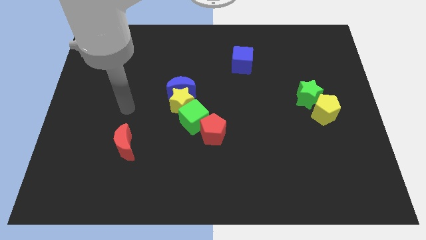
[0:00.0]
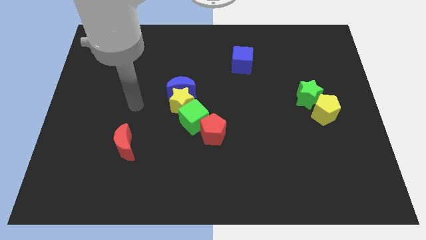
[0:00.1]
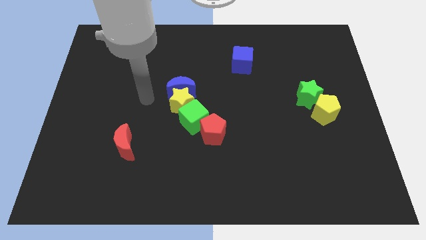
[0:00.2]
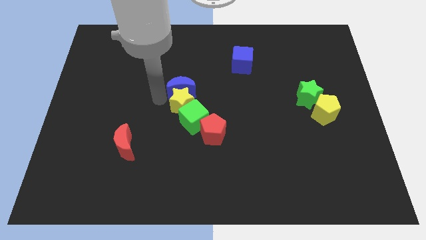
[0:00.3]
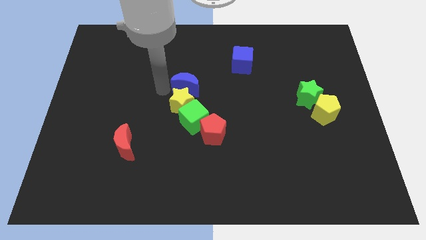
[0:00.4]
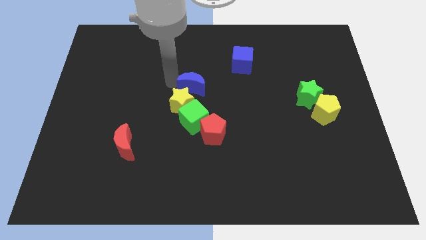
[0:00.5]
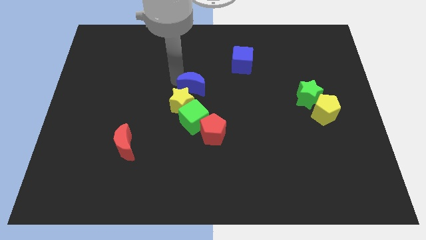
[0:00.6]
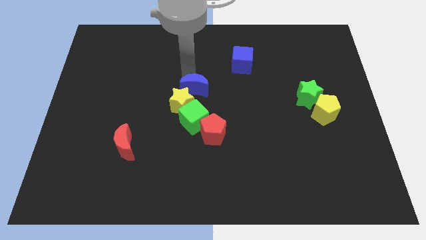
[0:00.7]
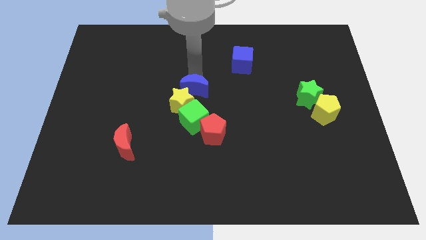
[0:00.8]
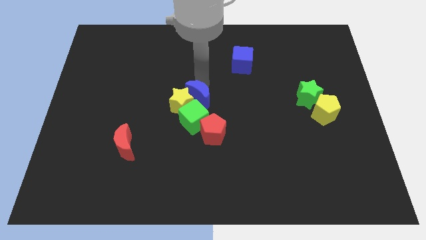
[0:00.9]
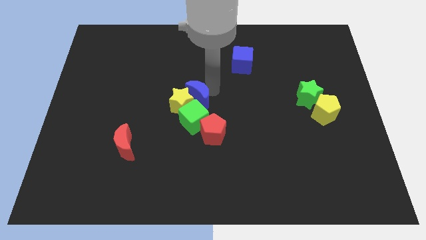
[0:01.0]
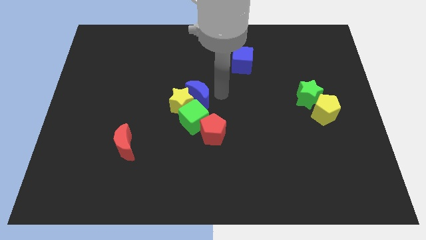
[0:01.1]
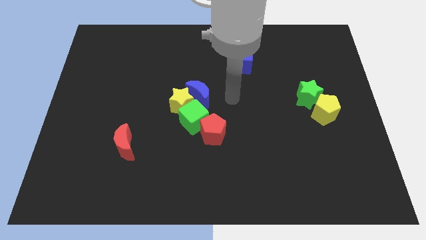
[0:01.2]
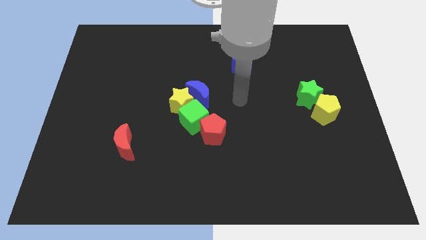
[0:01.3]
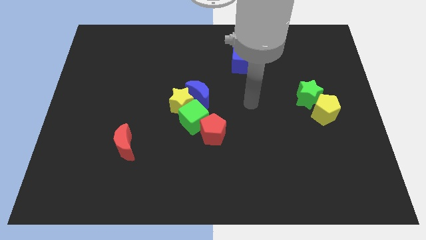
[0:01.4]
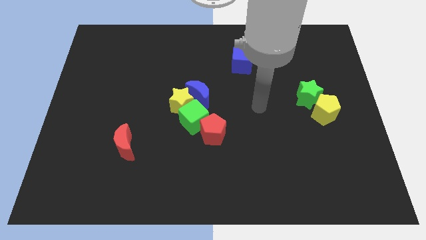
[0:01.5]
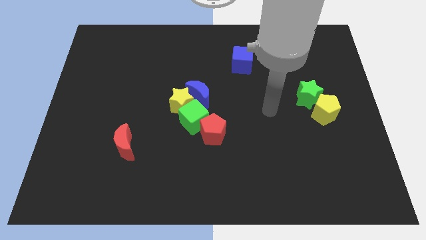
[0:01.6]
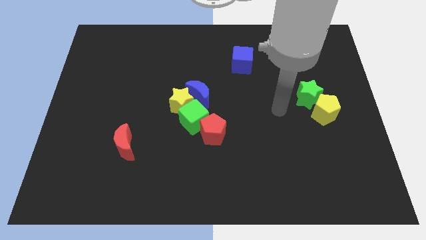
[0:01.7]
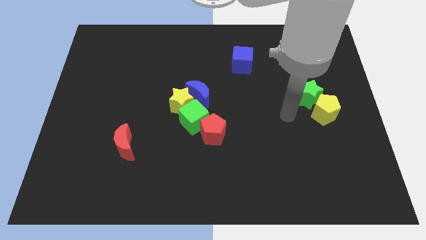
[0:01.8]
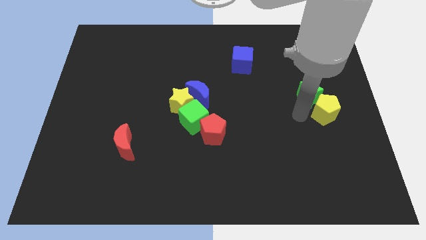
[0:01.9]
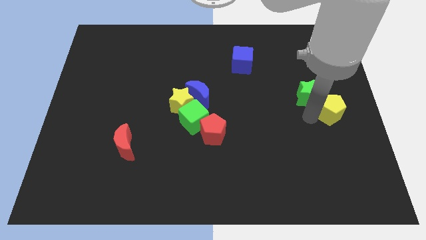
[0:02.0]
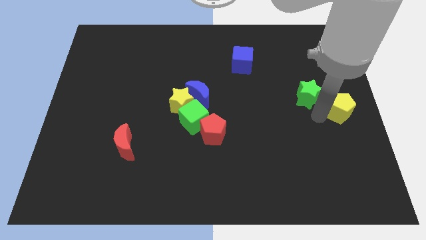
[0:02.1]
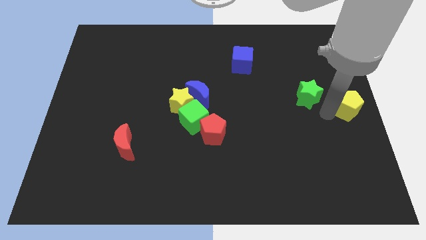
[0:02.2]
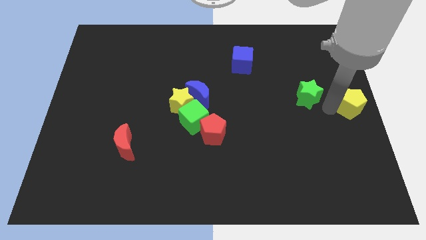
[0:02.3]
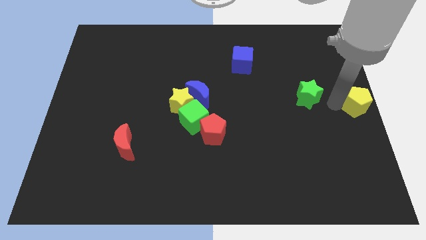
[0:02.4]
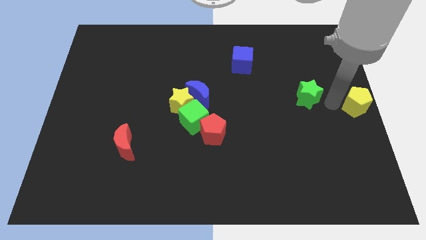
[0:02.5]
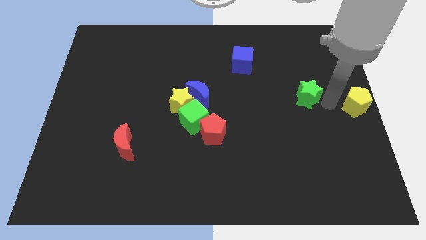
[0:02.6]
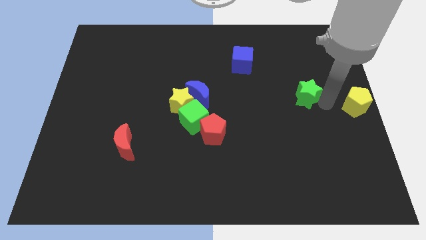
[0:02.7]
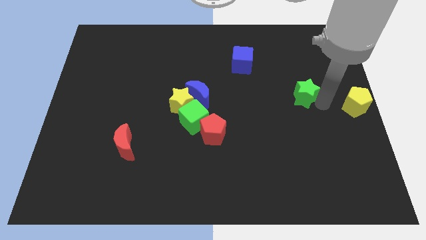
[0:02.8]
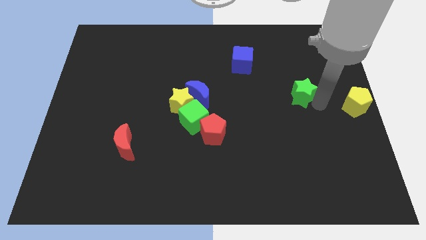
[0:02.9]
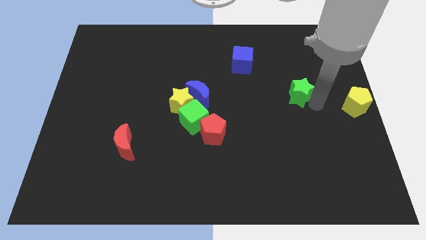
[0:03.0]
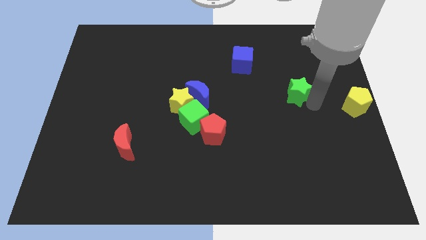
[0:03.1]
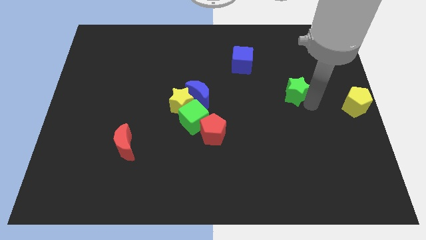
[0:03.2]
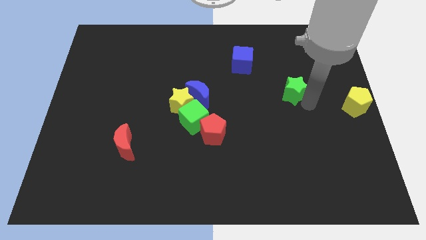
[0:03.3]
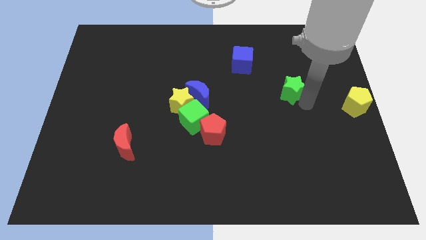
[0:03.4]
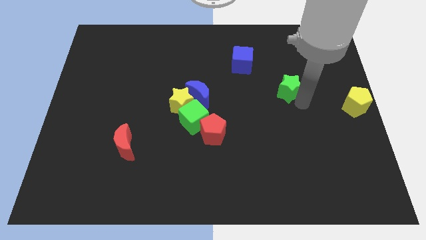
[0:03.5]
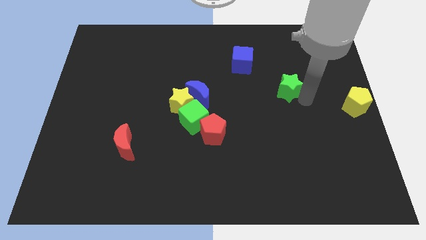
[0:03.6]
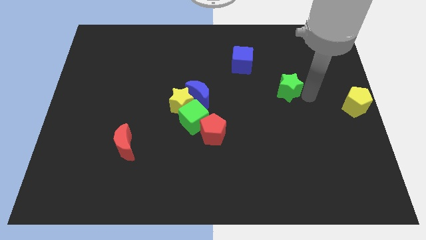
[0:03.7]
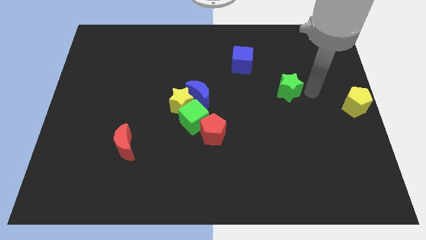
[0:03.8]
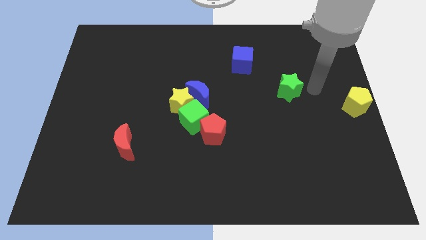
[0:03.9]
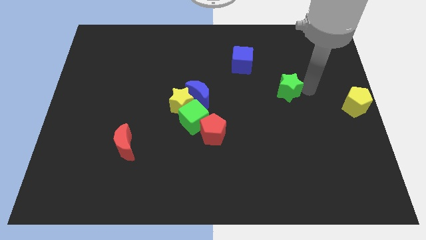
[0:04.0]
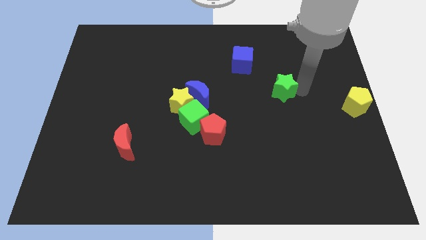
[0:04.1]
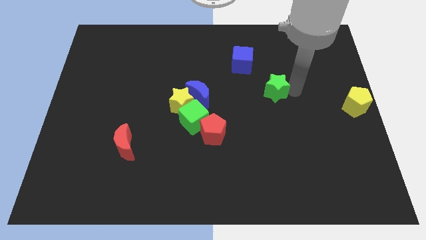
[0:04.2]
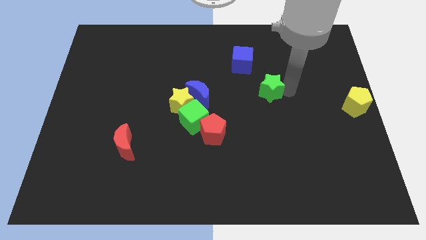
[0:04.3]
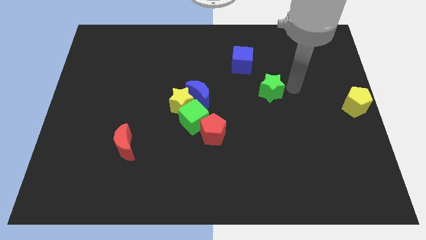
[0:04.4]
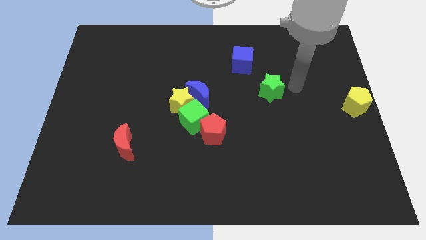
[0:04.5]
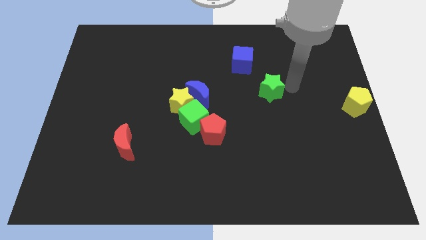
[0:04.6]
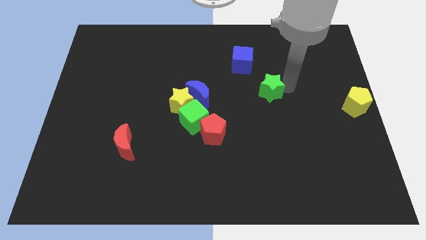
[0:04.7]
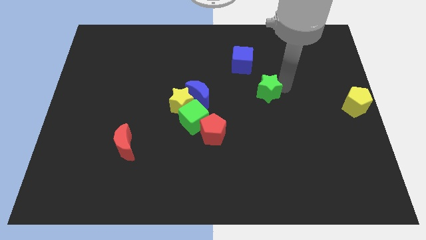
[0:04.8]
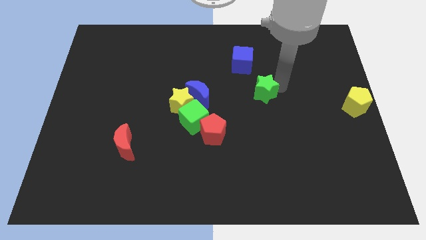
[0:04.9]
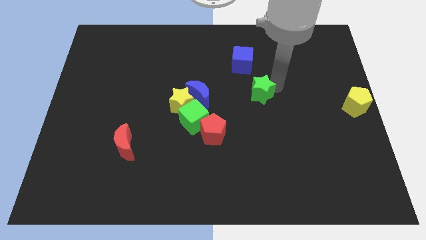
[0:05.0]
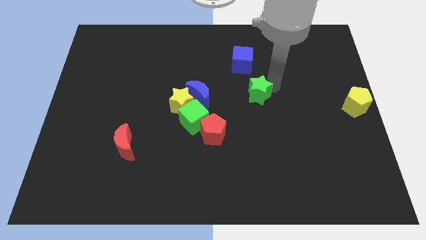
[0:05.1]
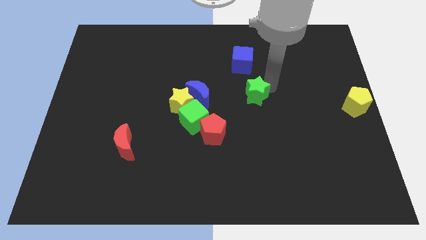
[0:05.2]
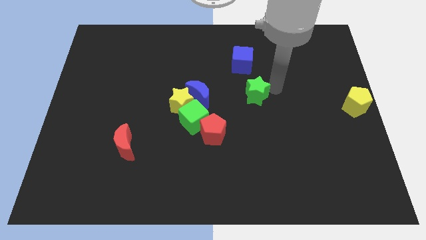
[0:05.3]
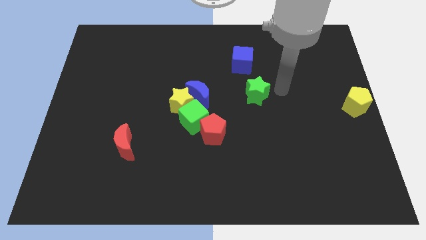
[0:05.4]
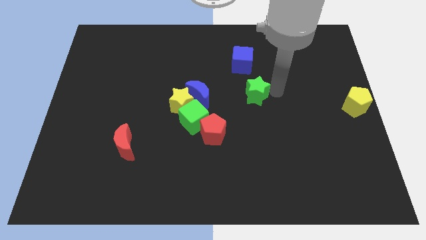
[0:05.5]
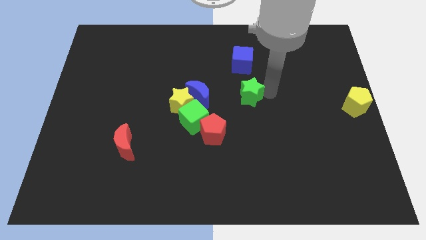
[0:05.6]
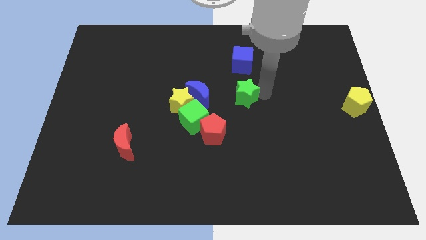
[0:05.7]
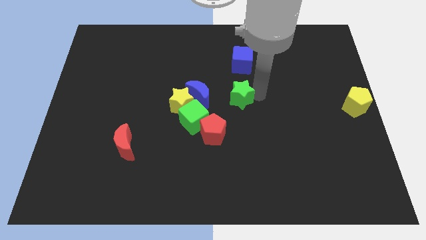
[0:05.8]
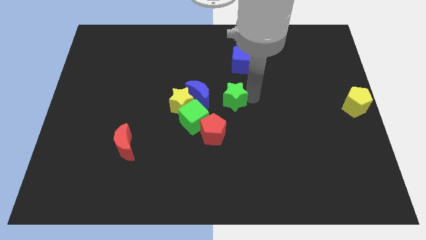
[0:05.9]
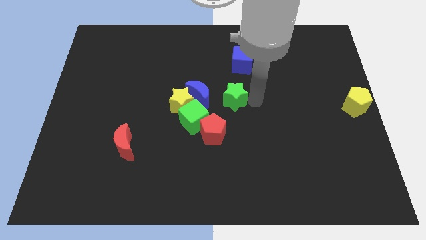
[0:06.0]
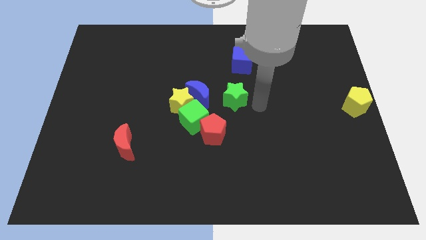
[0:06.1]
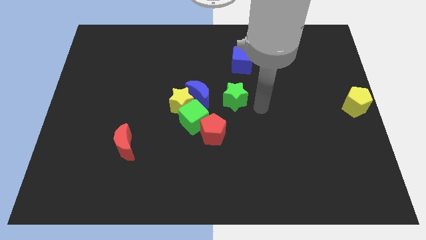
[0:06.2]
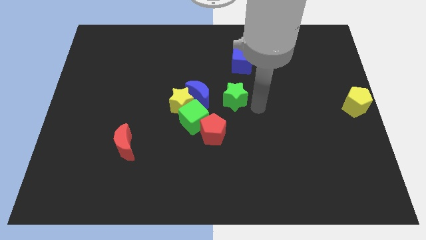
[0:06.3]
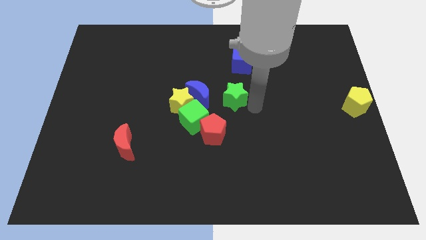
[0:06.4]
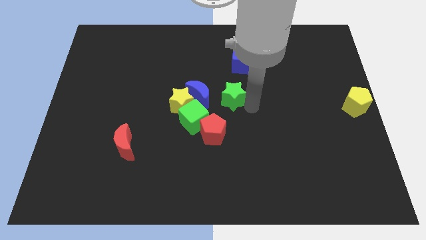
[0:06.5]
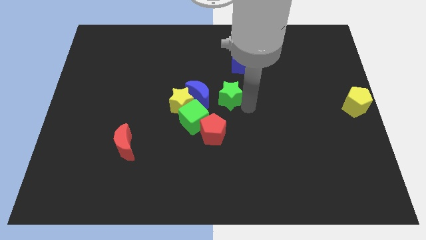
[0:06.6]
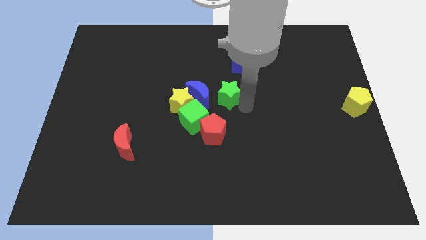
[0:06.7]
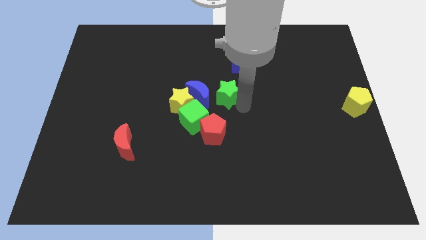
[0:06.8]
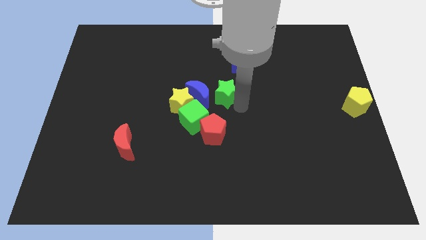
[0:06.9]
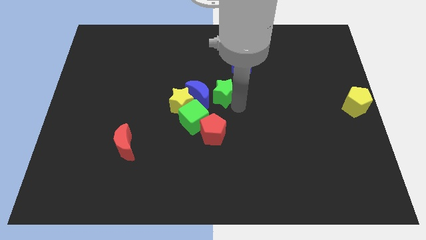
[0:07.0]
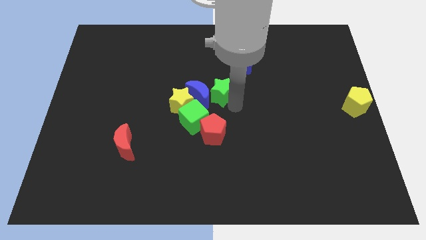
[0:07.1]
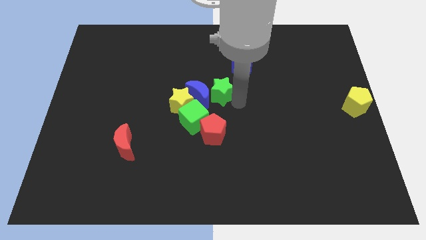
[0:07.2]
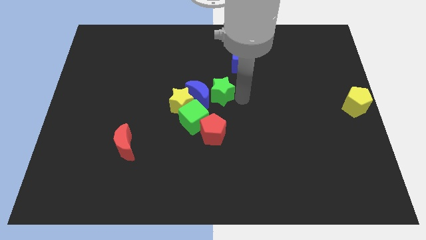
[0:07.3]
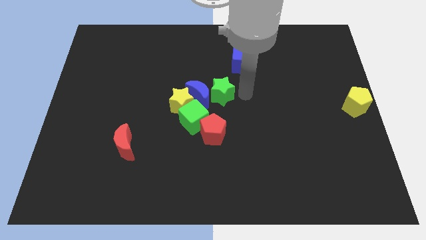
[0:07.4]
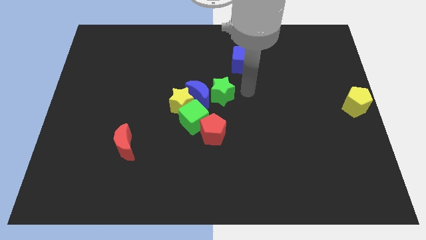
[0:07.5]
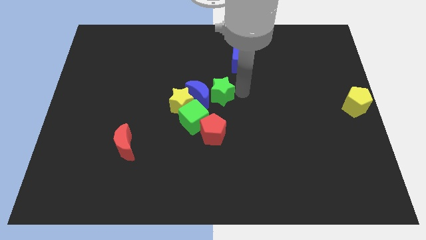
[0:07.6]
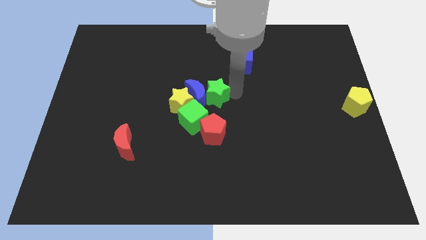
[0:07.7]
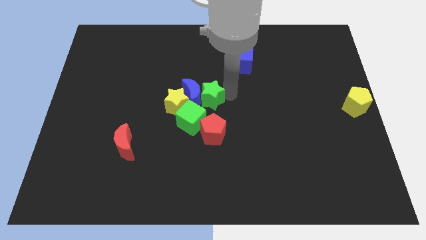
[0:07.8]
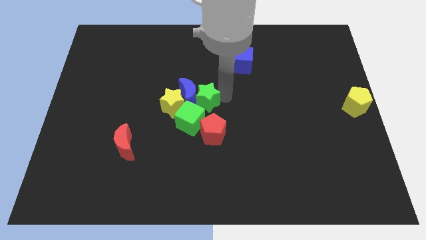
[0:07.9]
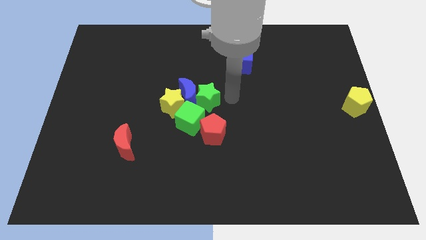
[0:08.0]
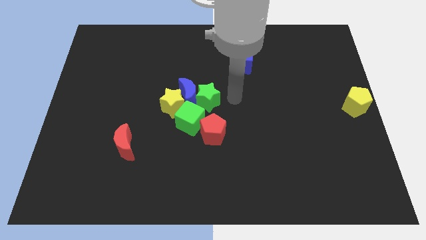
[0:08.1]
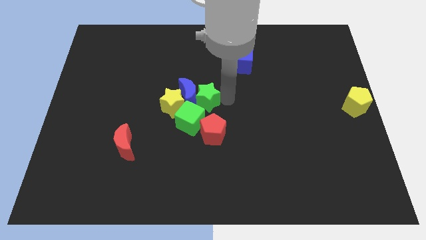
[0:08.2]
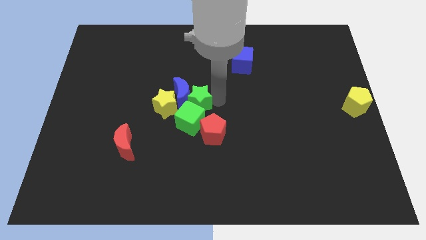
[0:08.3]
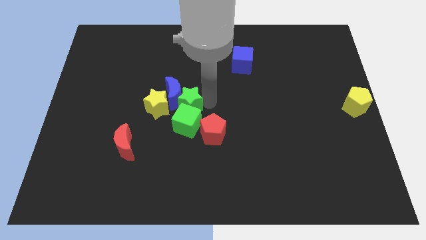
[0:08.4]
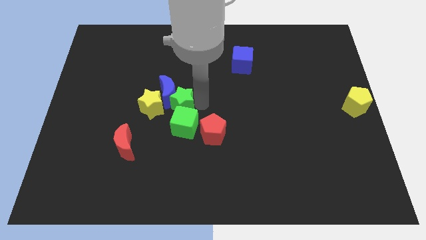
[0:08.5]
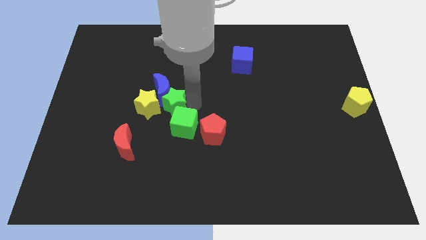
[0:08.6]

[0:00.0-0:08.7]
slide the green star close to the yellow star
